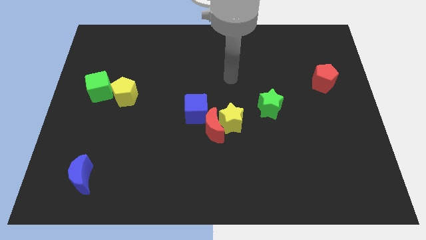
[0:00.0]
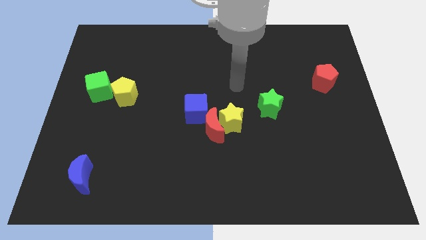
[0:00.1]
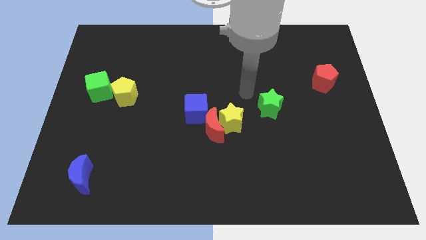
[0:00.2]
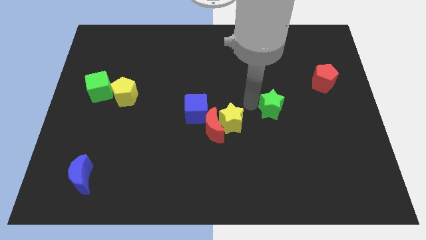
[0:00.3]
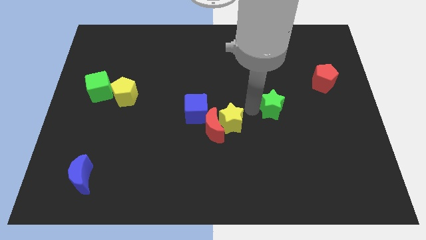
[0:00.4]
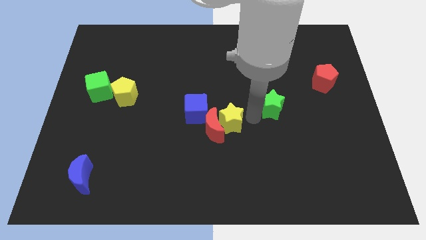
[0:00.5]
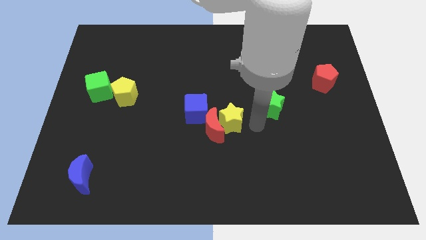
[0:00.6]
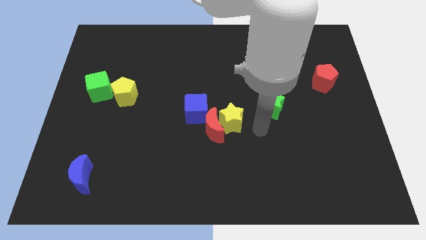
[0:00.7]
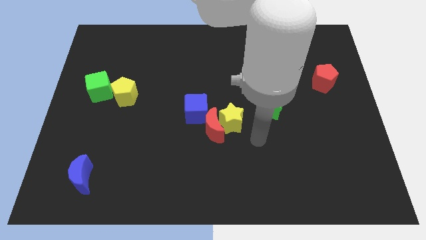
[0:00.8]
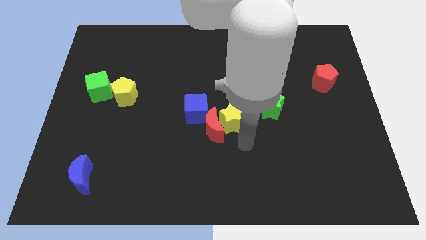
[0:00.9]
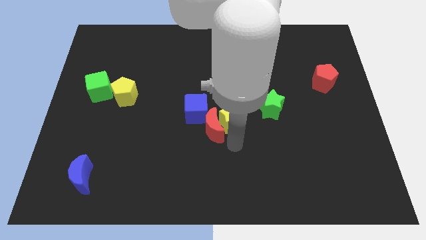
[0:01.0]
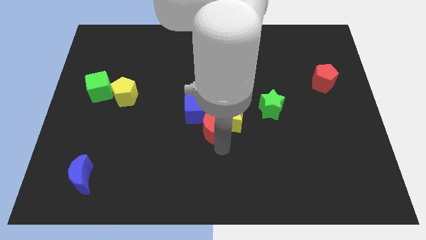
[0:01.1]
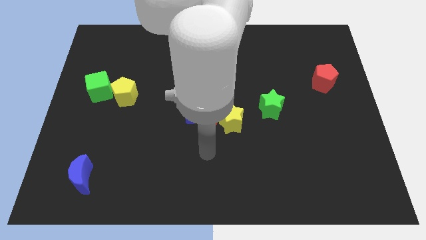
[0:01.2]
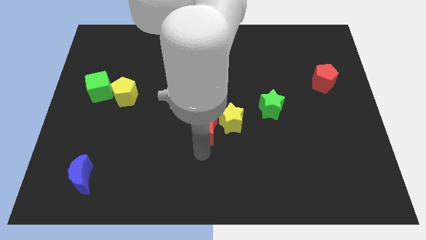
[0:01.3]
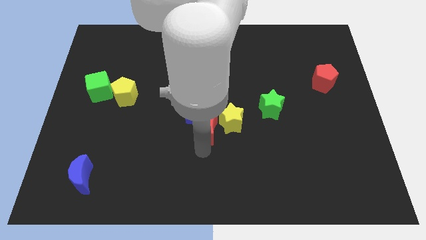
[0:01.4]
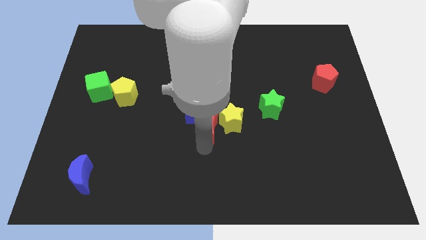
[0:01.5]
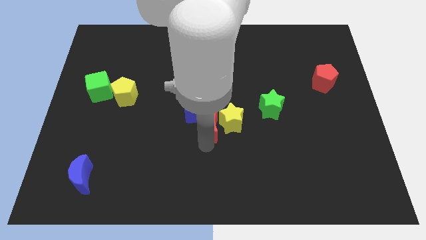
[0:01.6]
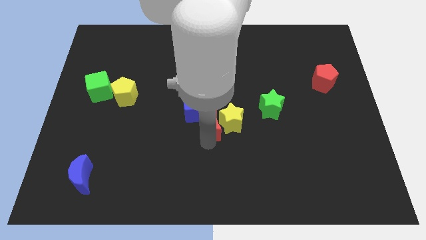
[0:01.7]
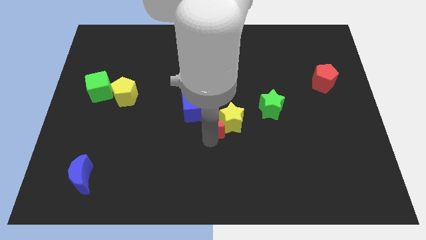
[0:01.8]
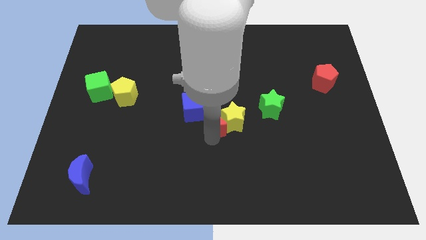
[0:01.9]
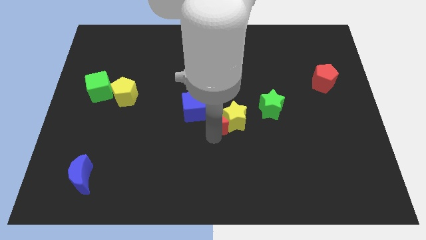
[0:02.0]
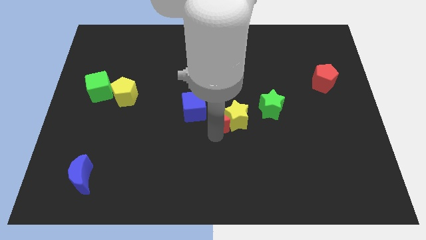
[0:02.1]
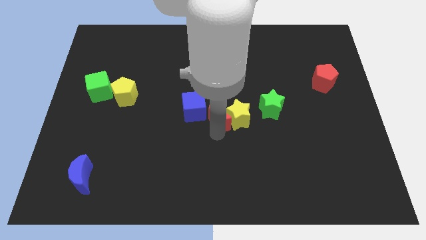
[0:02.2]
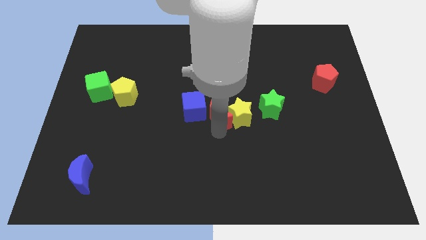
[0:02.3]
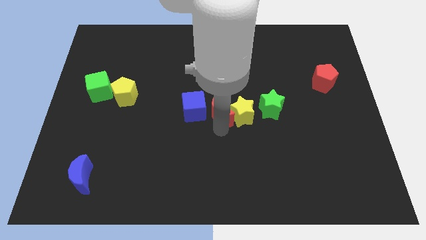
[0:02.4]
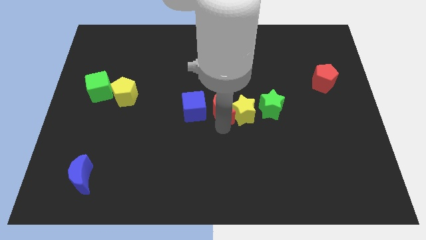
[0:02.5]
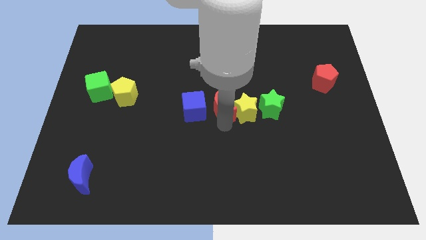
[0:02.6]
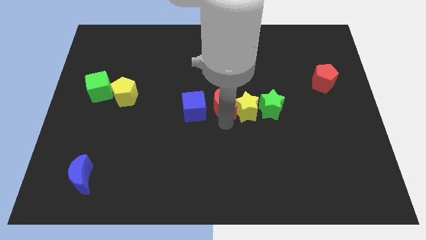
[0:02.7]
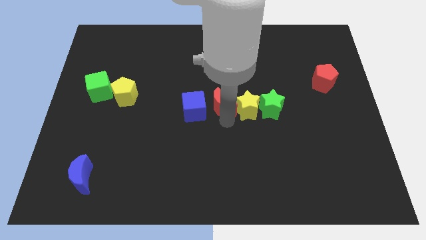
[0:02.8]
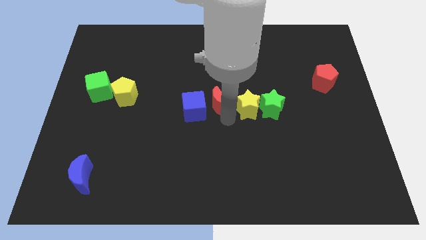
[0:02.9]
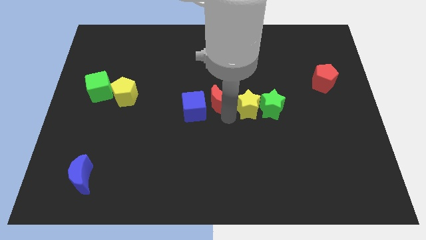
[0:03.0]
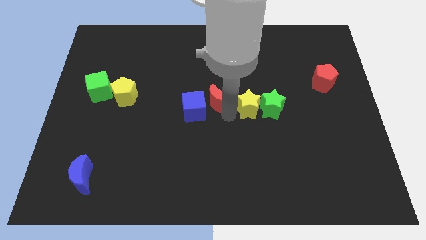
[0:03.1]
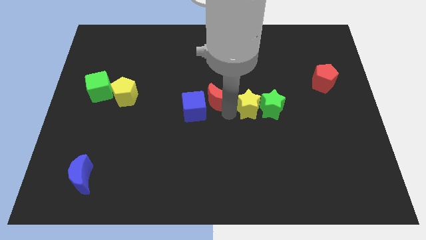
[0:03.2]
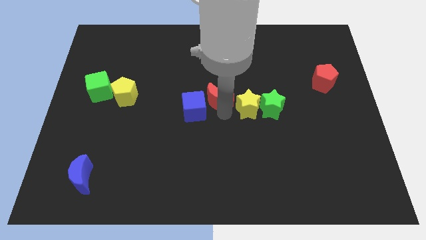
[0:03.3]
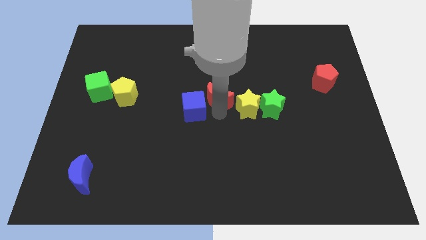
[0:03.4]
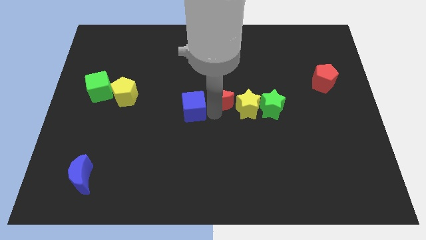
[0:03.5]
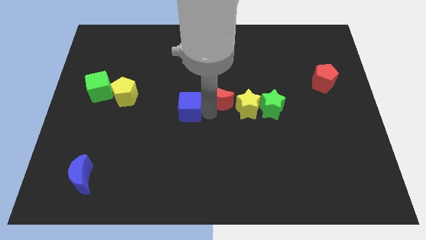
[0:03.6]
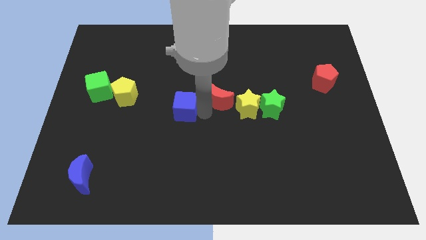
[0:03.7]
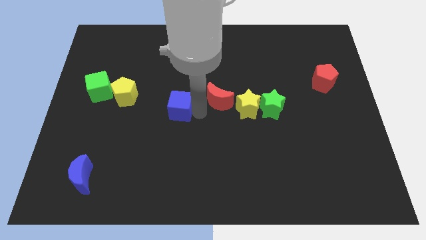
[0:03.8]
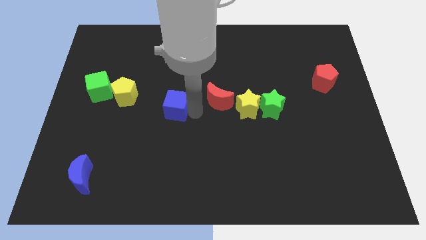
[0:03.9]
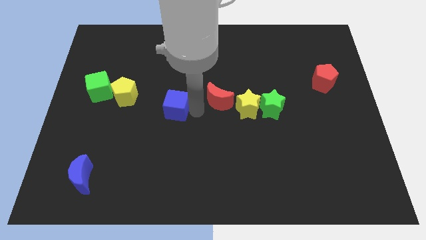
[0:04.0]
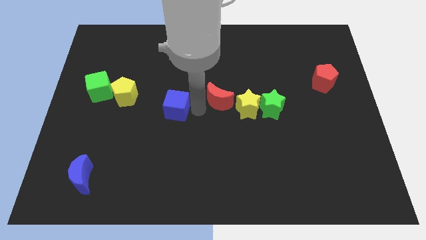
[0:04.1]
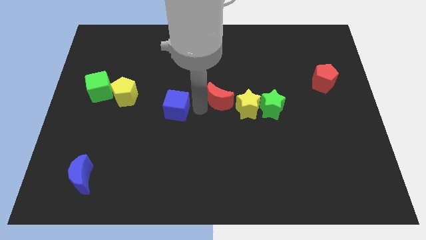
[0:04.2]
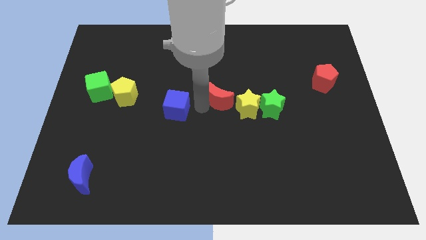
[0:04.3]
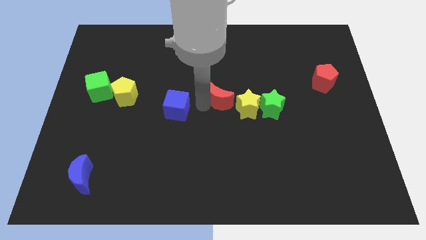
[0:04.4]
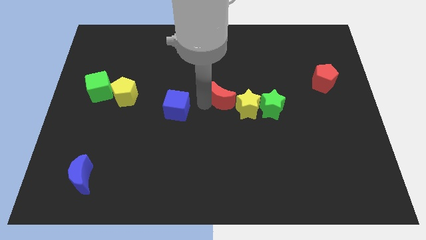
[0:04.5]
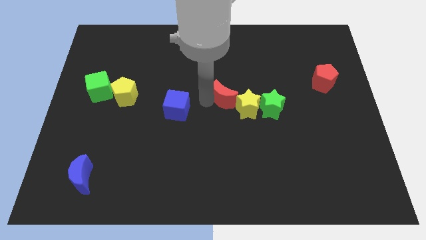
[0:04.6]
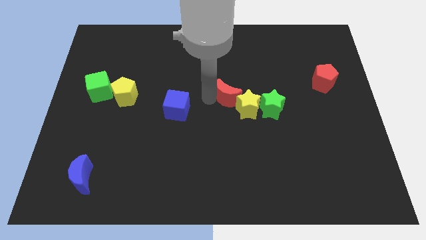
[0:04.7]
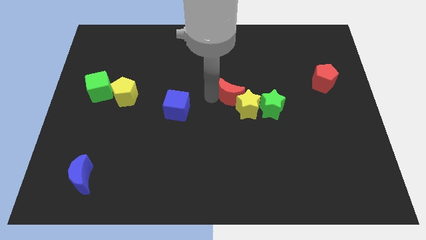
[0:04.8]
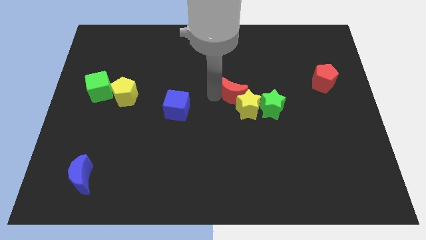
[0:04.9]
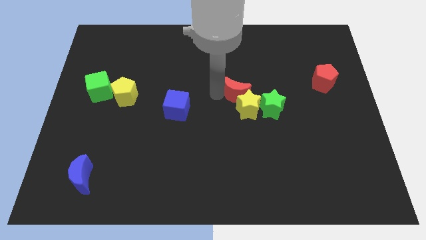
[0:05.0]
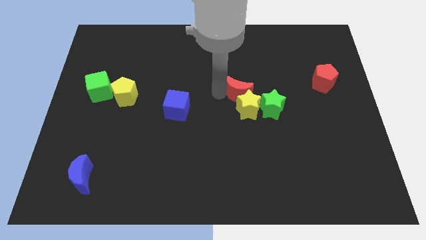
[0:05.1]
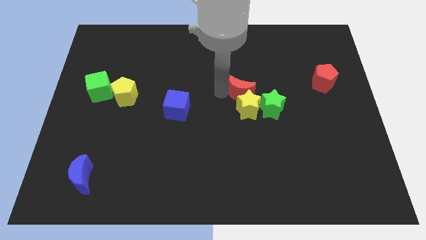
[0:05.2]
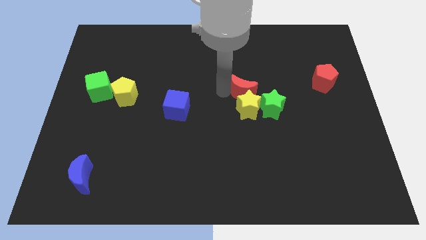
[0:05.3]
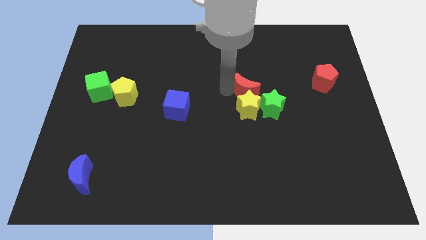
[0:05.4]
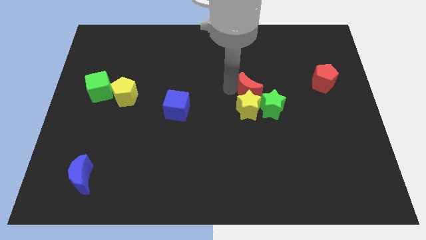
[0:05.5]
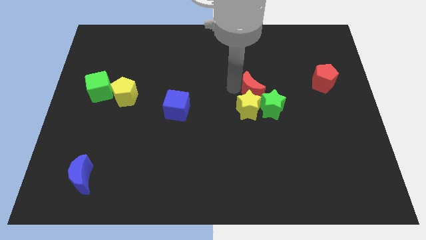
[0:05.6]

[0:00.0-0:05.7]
slide the red moon above the green star

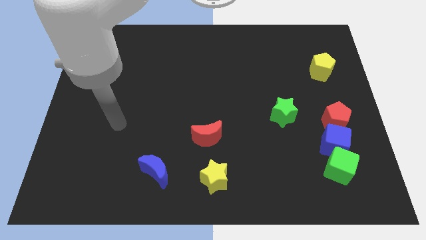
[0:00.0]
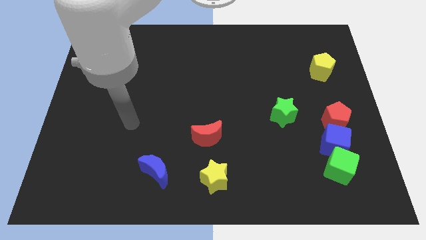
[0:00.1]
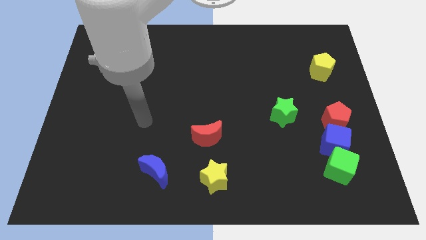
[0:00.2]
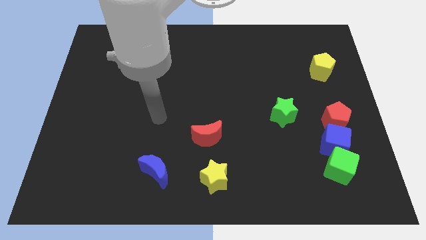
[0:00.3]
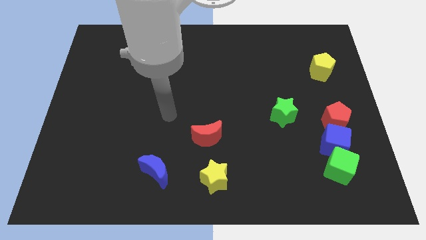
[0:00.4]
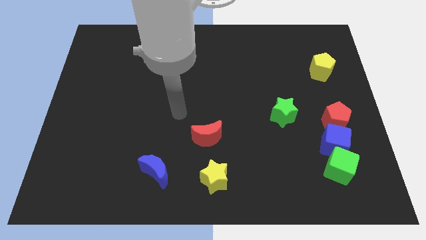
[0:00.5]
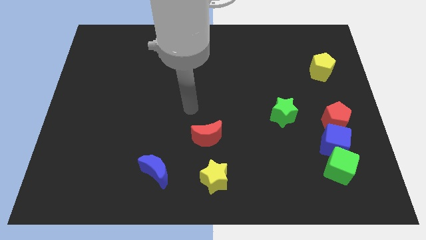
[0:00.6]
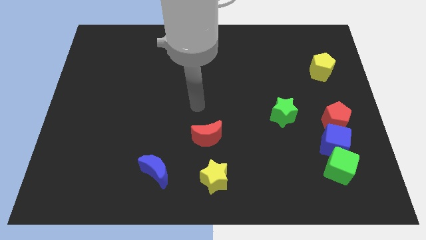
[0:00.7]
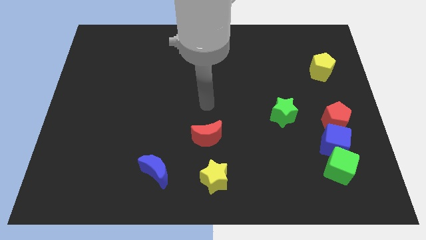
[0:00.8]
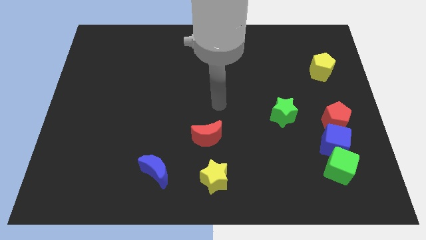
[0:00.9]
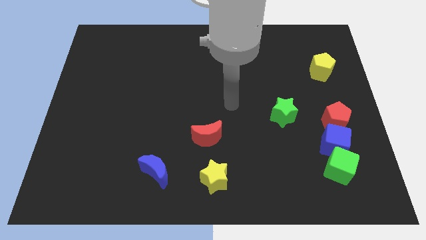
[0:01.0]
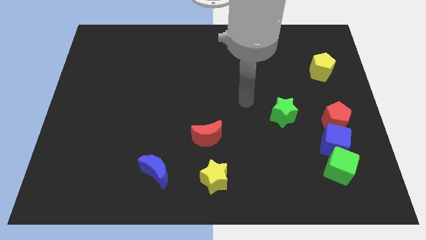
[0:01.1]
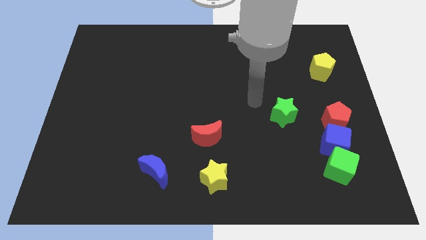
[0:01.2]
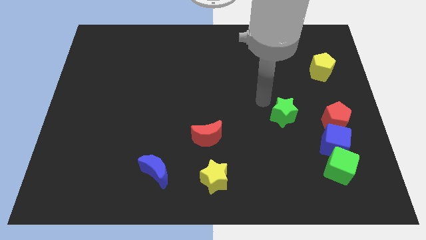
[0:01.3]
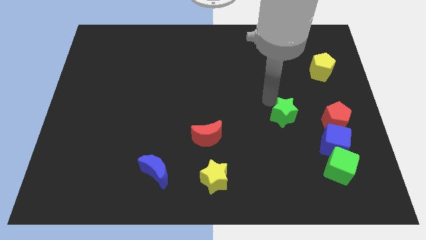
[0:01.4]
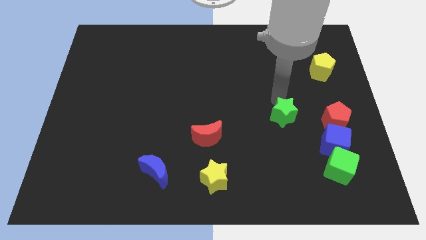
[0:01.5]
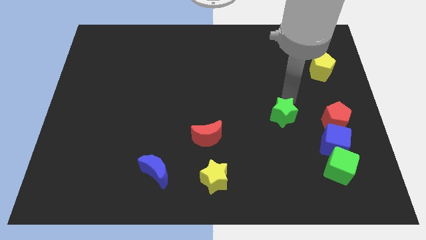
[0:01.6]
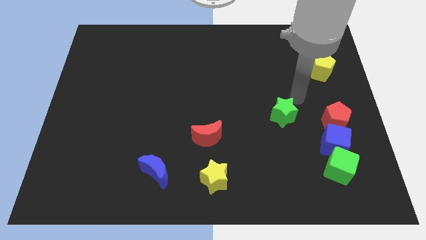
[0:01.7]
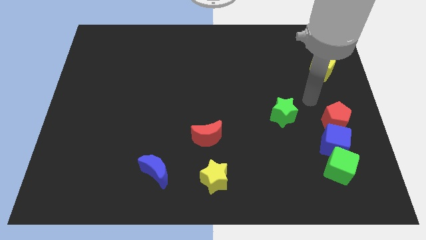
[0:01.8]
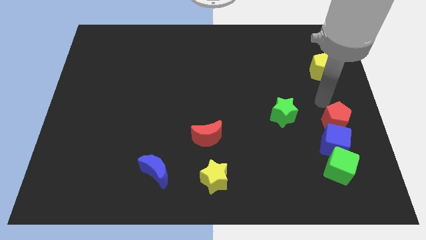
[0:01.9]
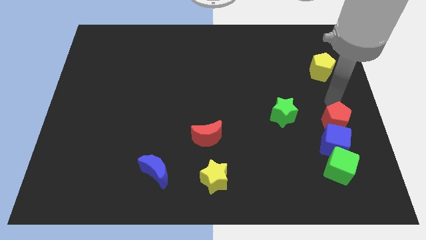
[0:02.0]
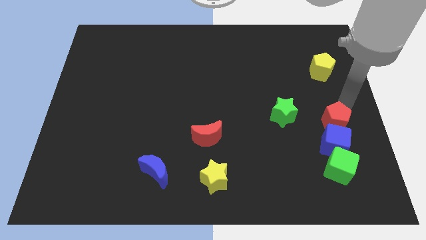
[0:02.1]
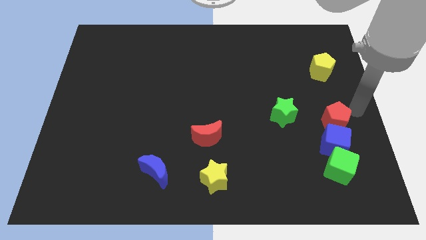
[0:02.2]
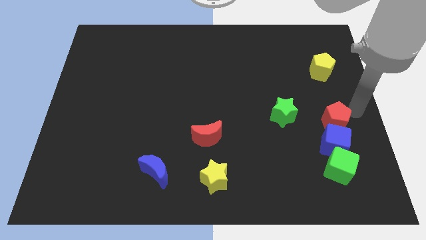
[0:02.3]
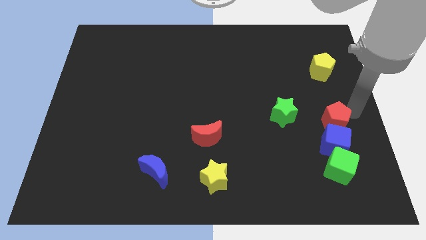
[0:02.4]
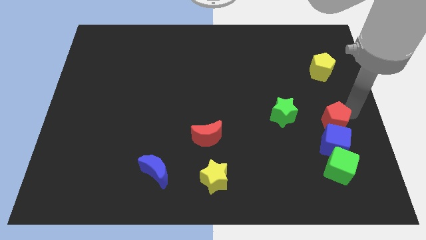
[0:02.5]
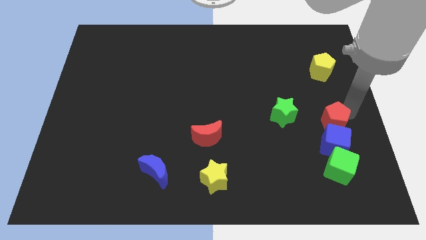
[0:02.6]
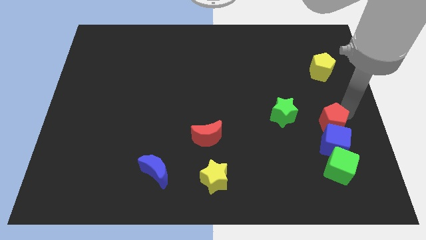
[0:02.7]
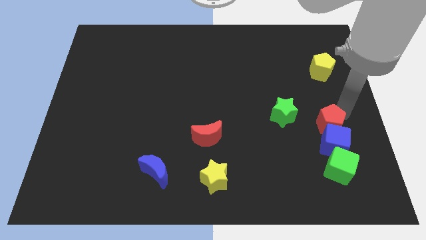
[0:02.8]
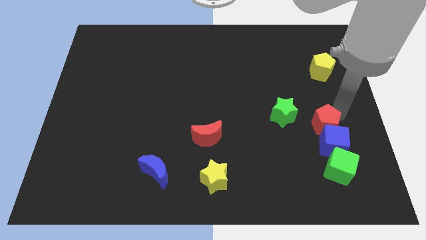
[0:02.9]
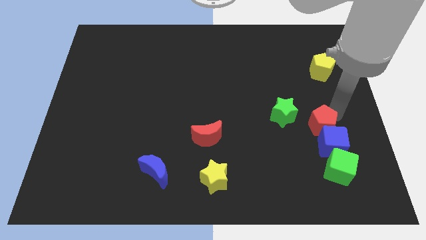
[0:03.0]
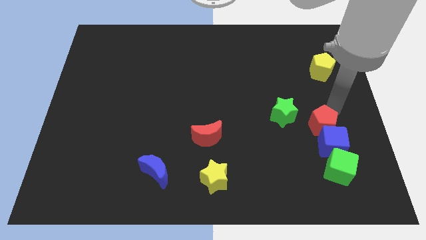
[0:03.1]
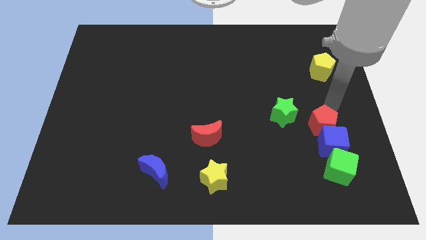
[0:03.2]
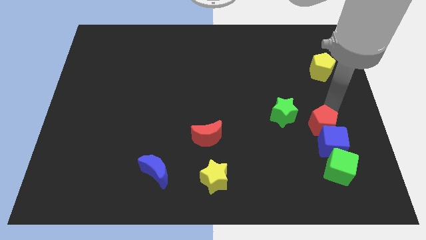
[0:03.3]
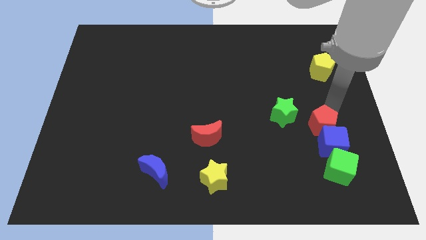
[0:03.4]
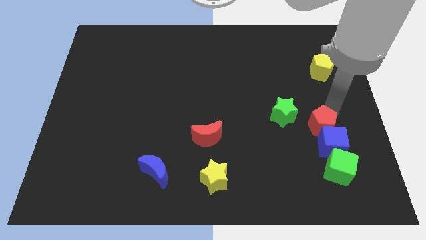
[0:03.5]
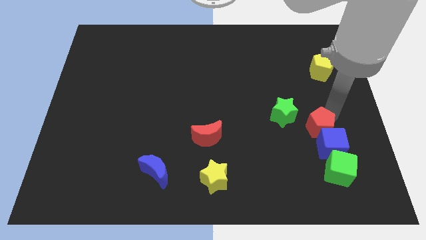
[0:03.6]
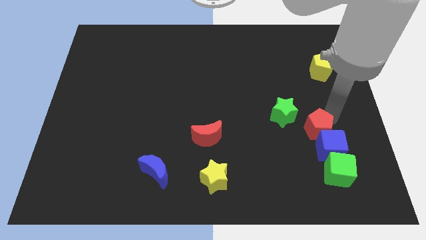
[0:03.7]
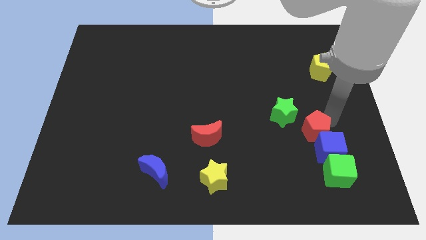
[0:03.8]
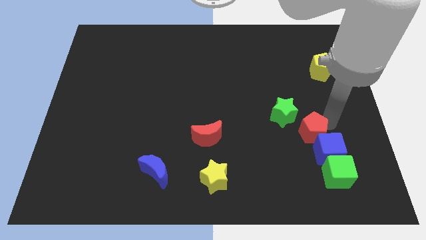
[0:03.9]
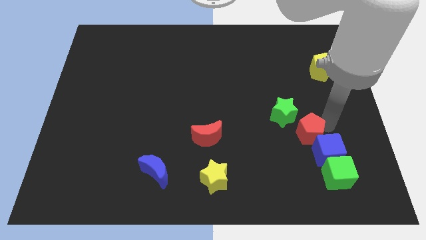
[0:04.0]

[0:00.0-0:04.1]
put the red pentagon diagonally up and to the left of the green cube
